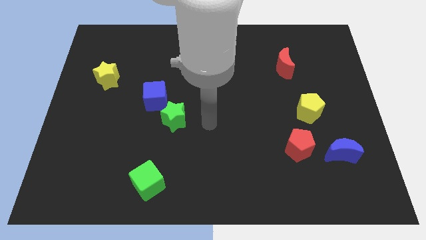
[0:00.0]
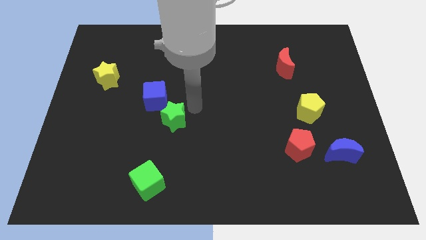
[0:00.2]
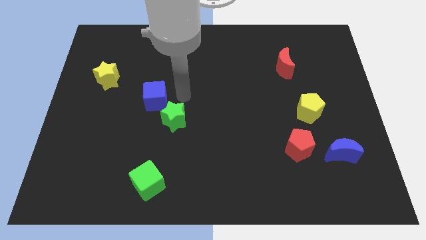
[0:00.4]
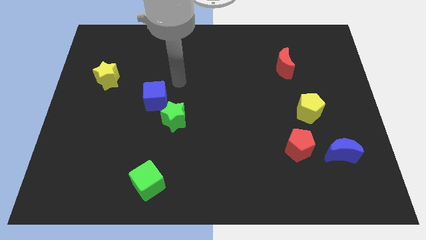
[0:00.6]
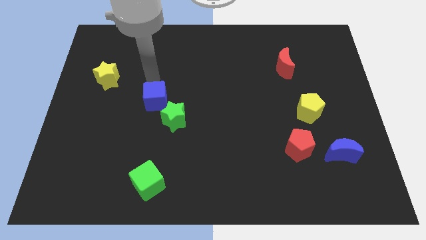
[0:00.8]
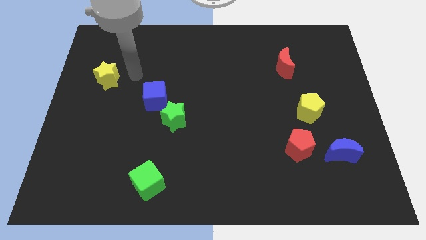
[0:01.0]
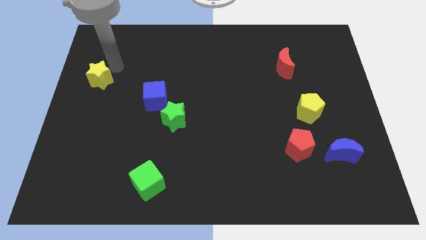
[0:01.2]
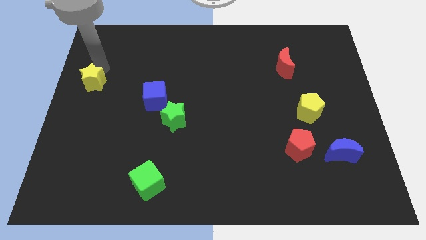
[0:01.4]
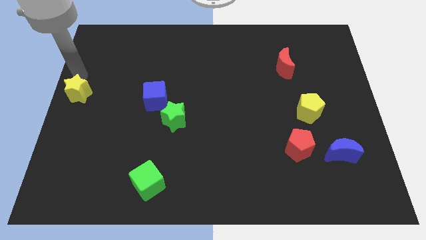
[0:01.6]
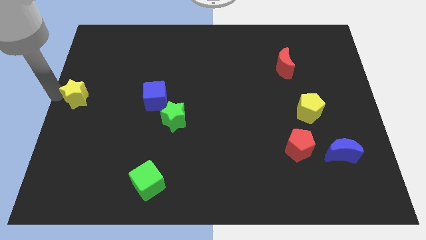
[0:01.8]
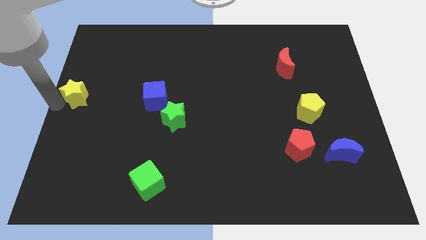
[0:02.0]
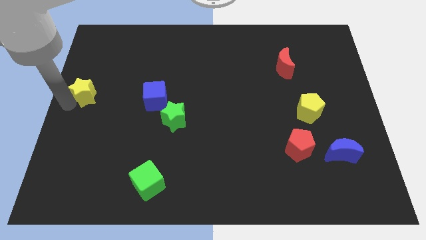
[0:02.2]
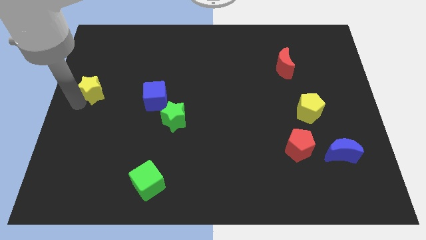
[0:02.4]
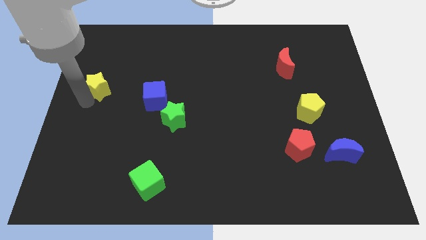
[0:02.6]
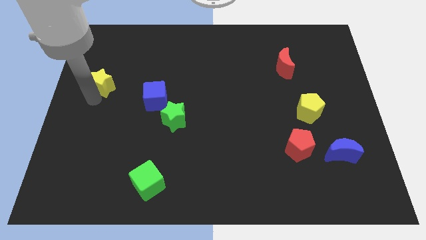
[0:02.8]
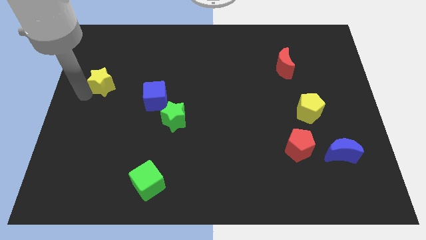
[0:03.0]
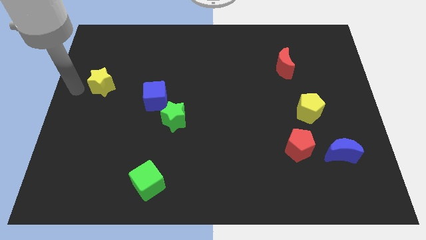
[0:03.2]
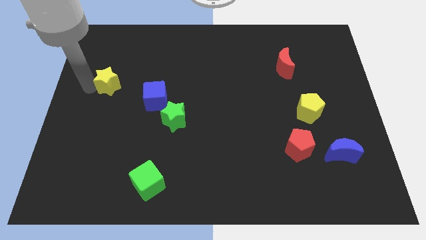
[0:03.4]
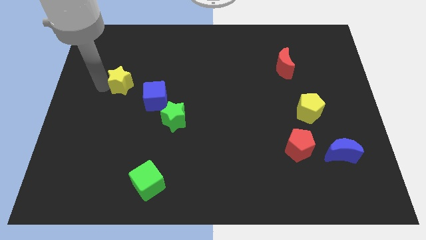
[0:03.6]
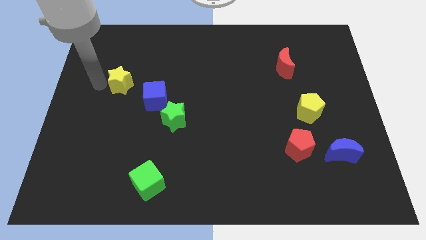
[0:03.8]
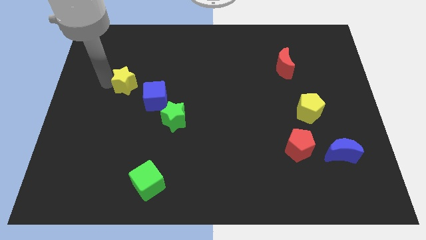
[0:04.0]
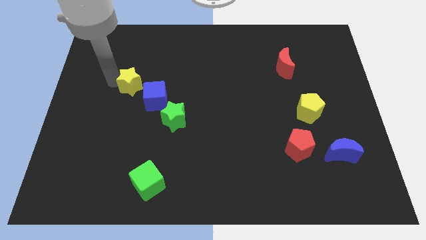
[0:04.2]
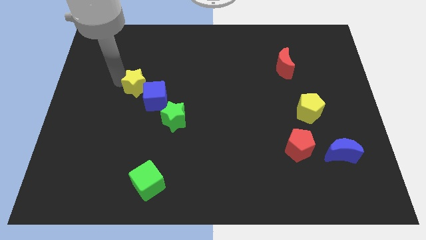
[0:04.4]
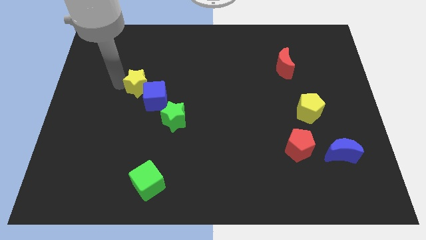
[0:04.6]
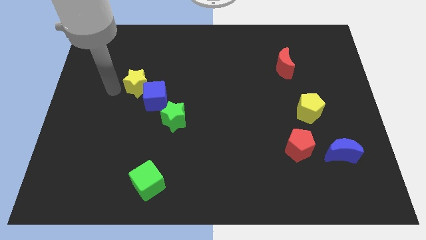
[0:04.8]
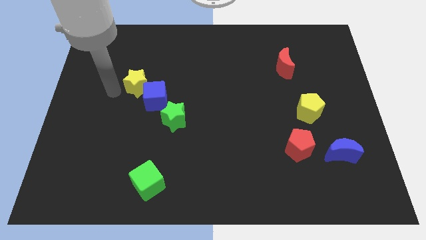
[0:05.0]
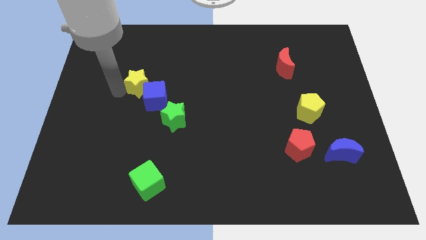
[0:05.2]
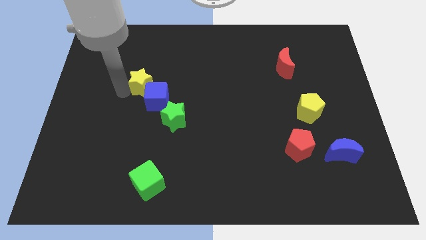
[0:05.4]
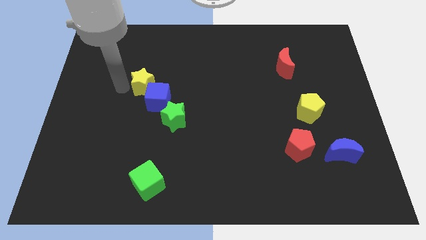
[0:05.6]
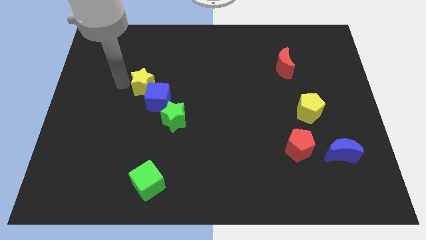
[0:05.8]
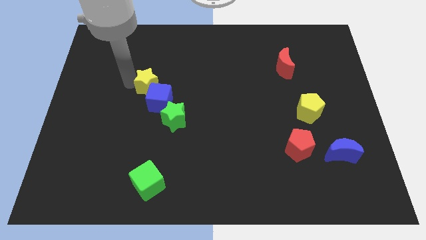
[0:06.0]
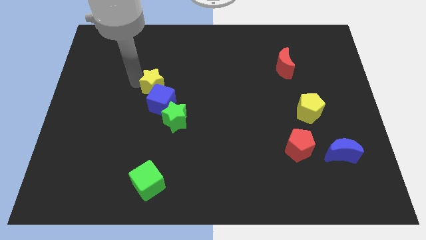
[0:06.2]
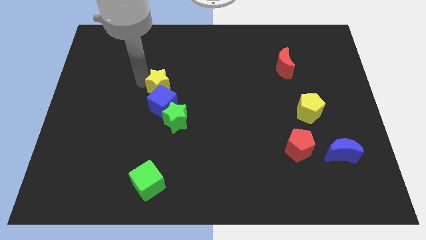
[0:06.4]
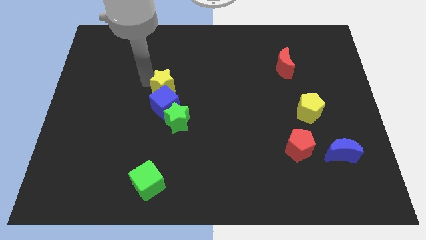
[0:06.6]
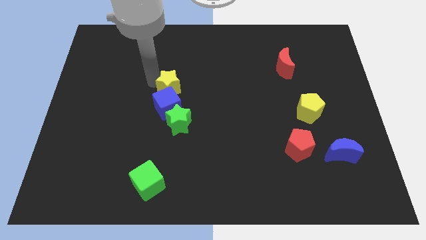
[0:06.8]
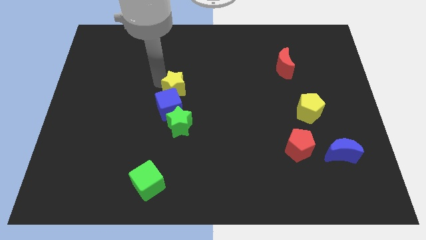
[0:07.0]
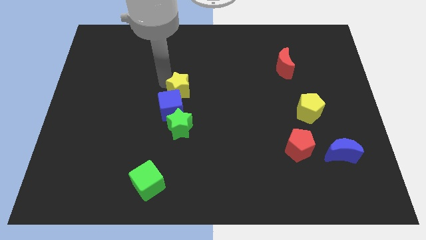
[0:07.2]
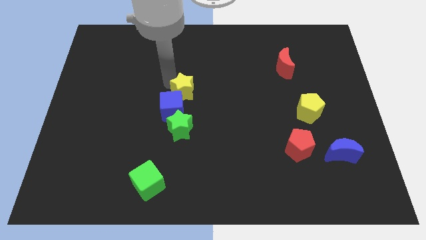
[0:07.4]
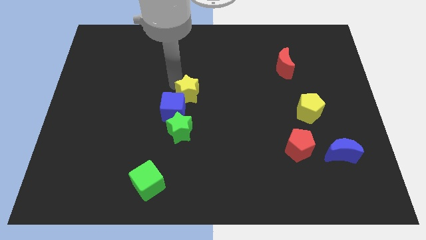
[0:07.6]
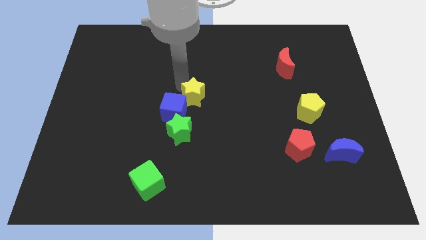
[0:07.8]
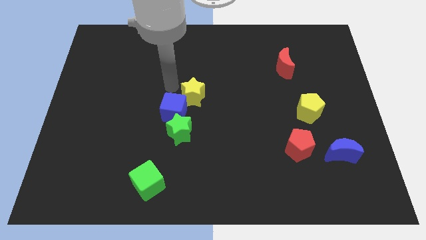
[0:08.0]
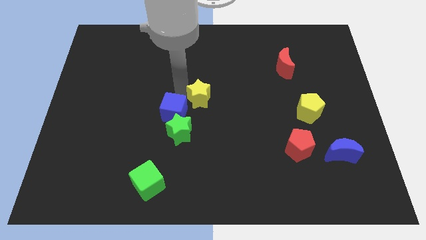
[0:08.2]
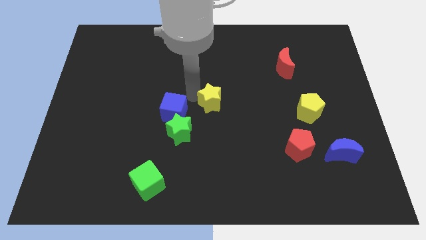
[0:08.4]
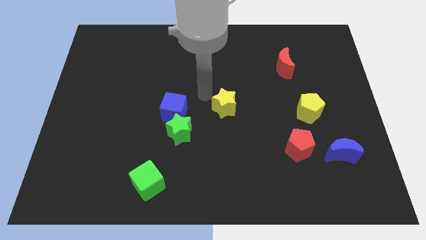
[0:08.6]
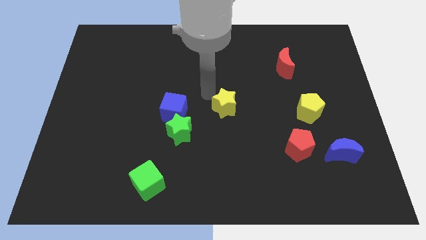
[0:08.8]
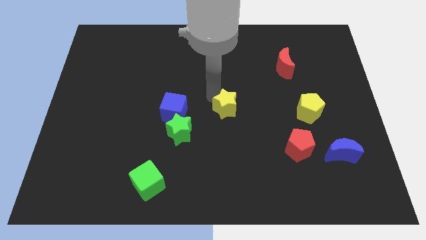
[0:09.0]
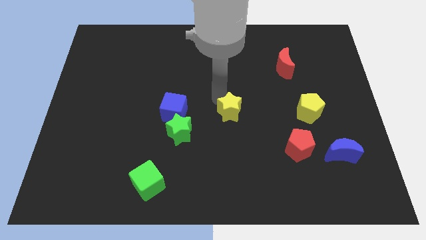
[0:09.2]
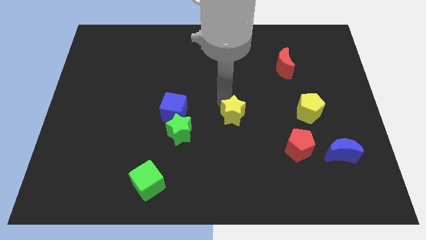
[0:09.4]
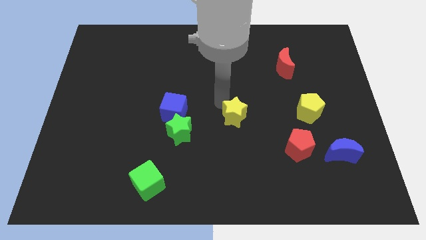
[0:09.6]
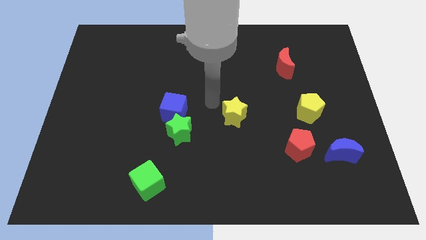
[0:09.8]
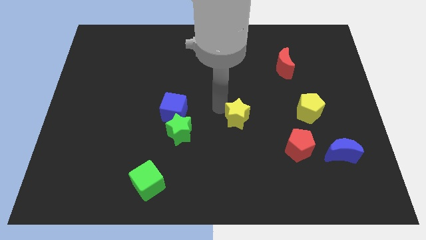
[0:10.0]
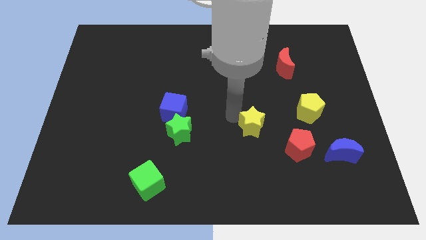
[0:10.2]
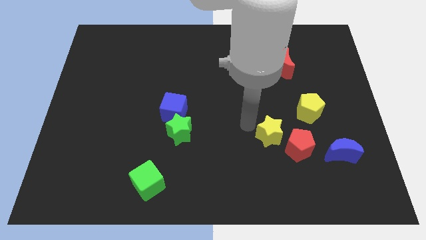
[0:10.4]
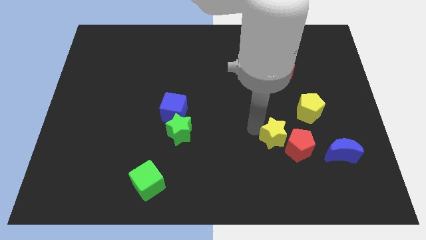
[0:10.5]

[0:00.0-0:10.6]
push the yellow star towards the red pentagon

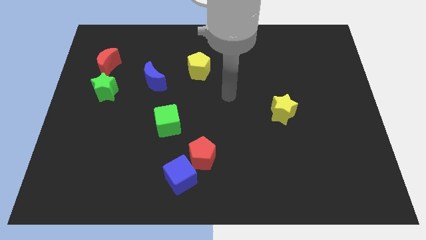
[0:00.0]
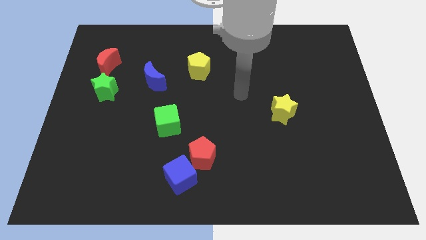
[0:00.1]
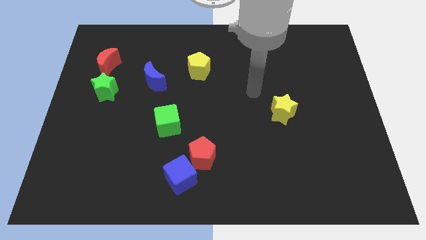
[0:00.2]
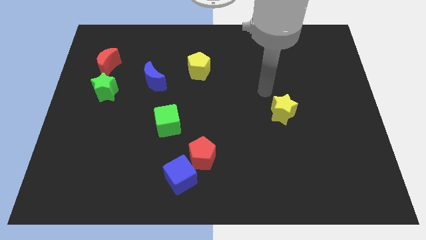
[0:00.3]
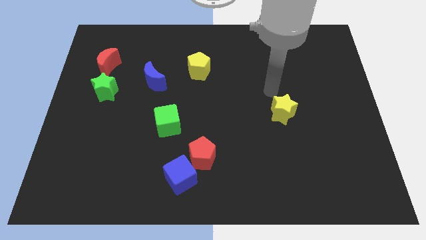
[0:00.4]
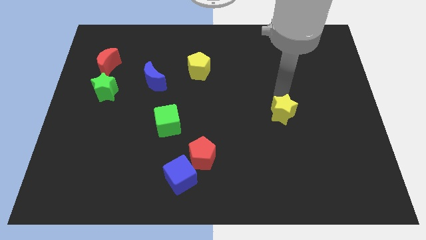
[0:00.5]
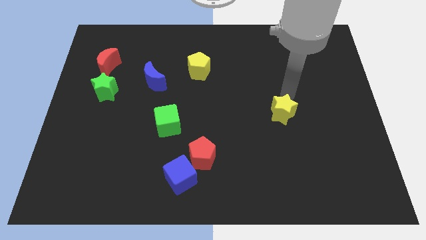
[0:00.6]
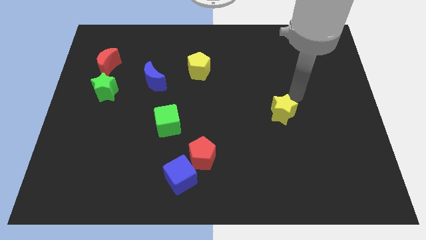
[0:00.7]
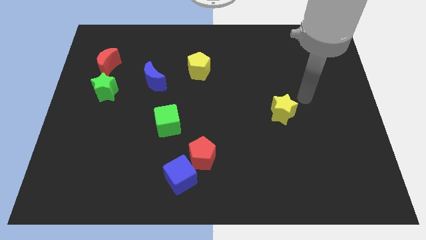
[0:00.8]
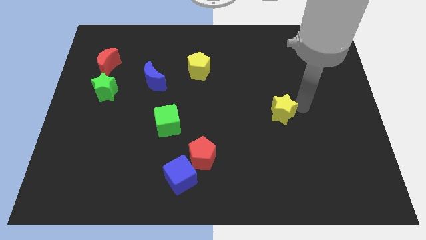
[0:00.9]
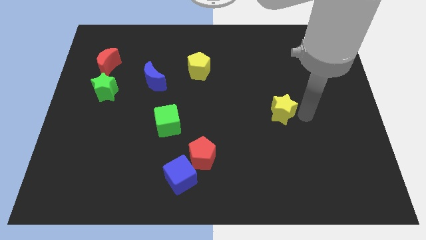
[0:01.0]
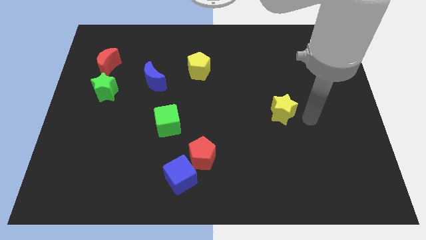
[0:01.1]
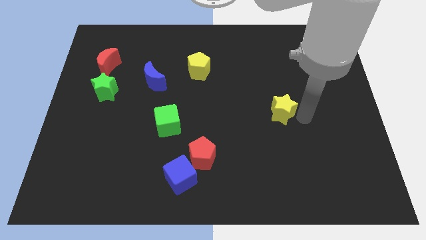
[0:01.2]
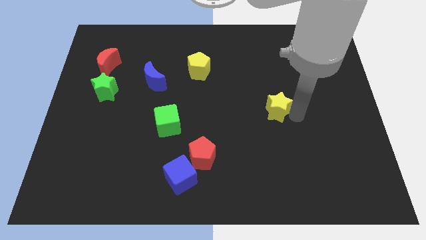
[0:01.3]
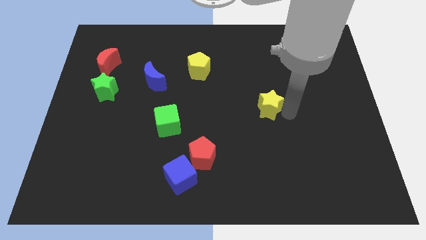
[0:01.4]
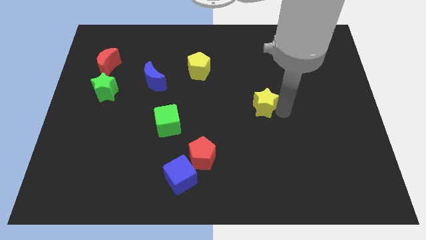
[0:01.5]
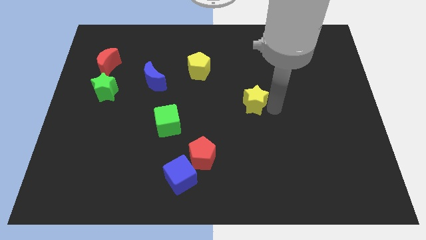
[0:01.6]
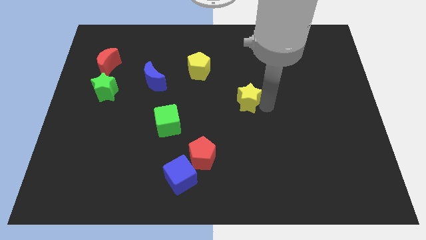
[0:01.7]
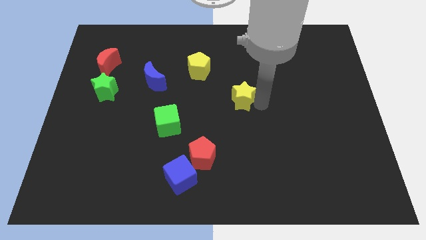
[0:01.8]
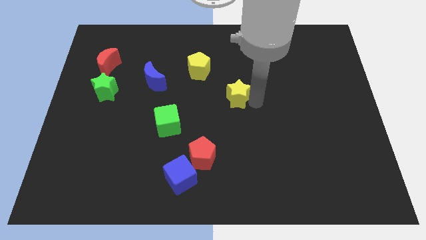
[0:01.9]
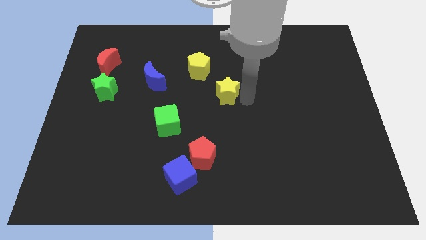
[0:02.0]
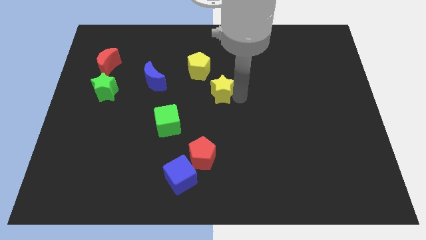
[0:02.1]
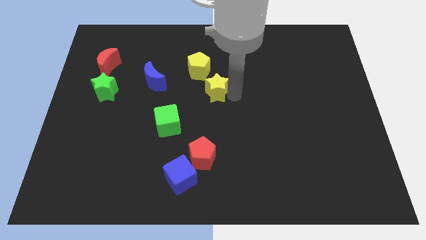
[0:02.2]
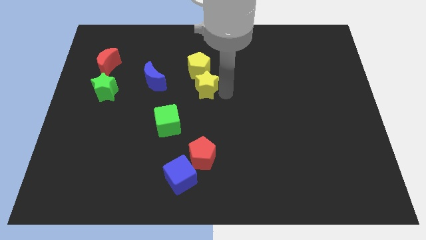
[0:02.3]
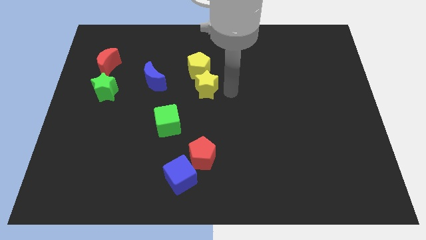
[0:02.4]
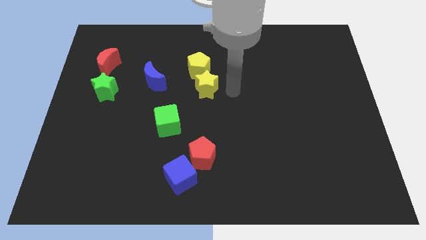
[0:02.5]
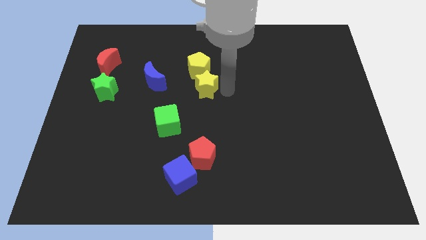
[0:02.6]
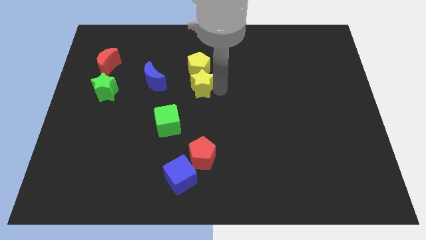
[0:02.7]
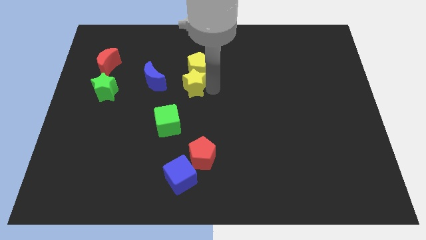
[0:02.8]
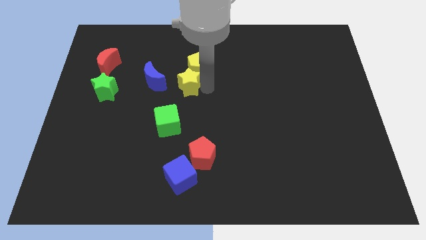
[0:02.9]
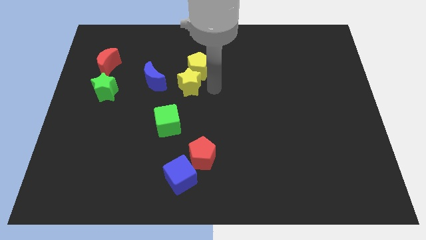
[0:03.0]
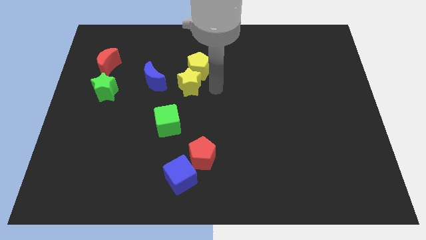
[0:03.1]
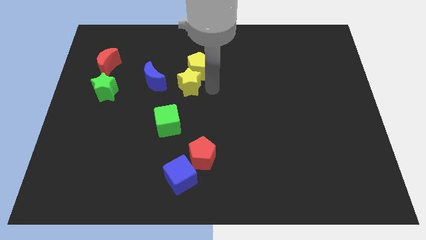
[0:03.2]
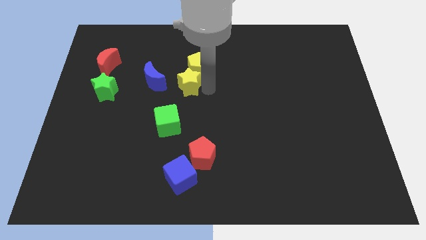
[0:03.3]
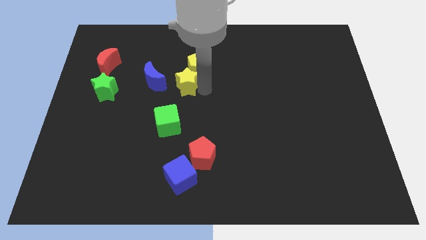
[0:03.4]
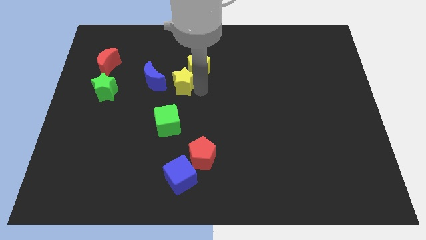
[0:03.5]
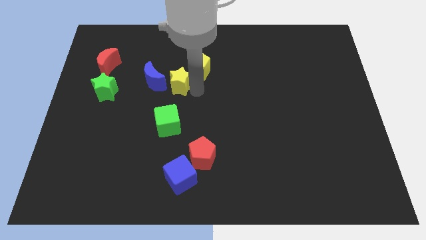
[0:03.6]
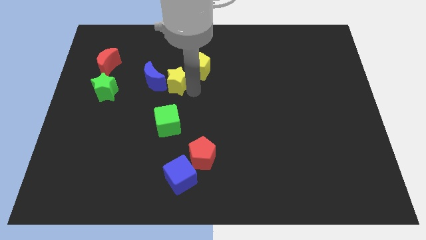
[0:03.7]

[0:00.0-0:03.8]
move the yellow star to the blue moon
